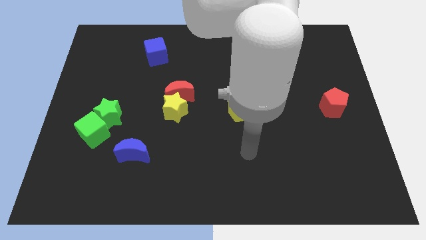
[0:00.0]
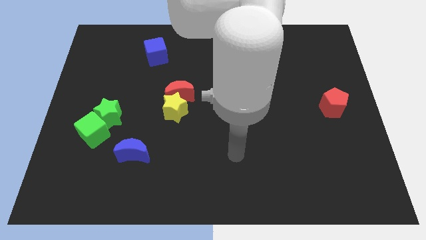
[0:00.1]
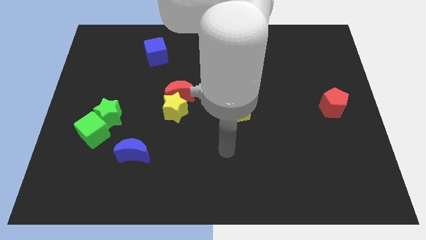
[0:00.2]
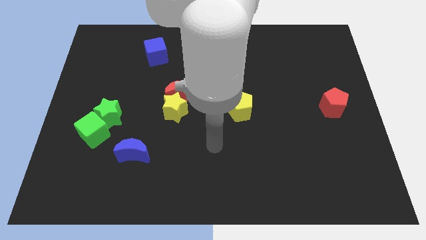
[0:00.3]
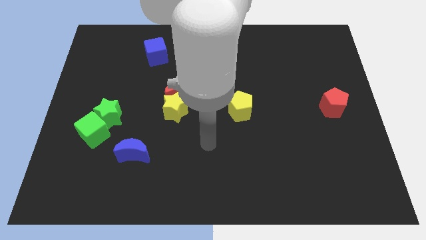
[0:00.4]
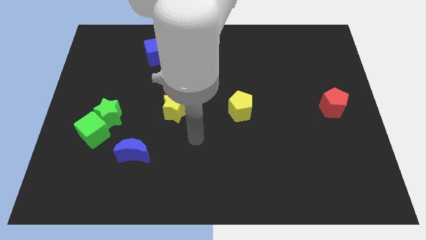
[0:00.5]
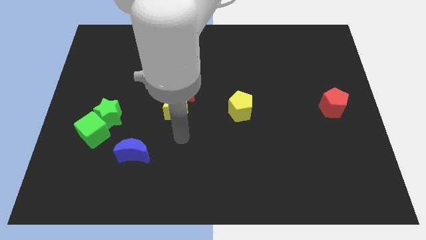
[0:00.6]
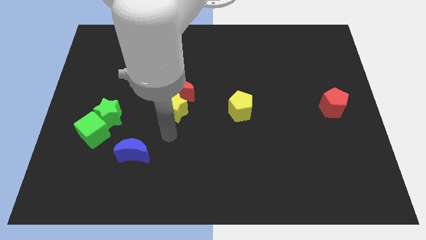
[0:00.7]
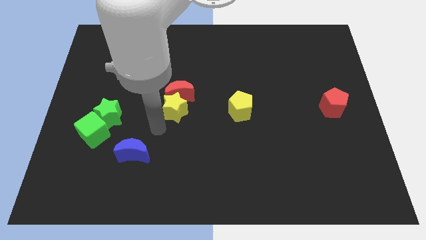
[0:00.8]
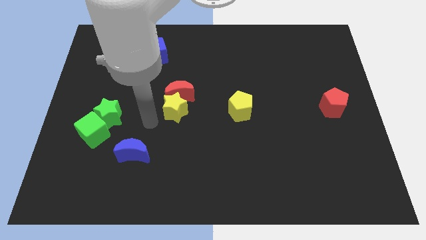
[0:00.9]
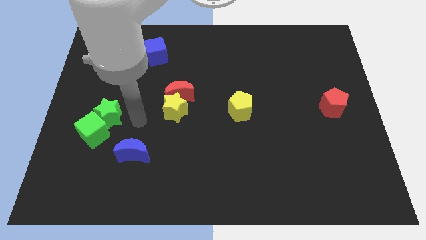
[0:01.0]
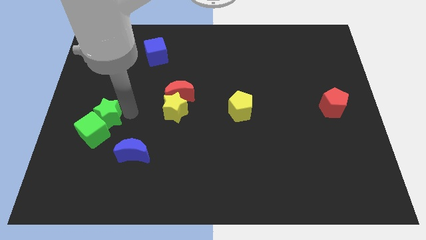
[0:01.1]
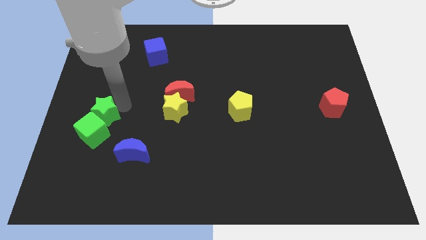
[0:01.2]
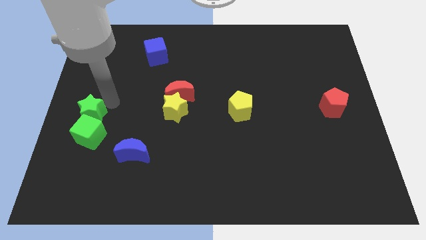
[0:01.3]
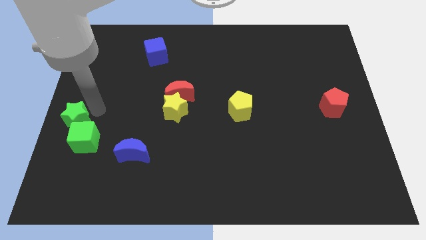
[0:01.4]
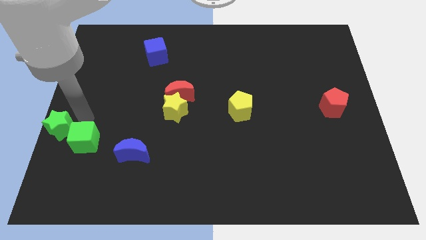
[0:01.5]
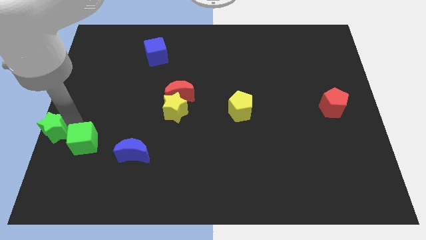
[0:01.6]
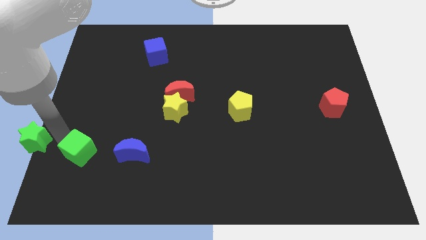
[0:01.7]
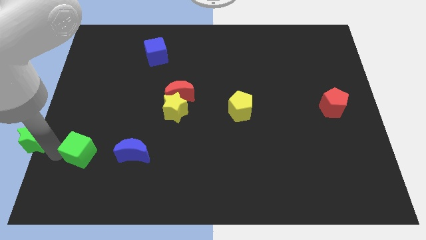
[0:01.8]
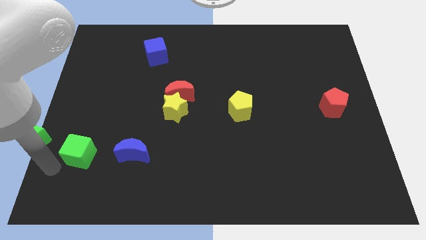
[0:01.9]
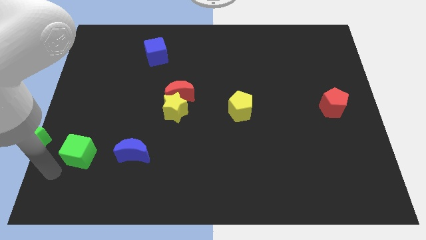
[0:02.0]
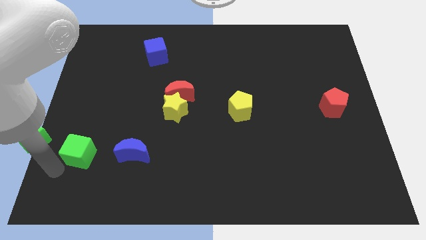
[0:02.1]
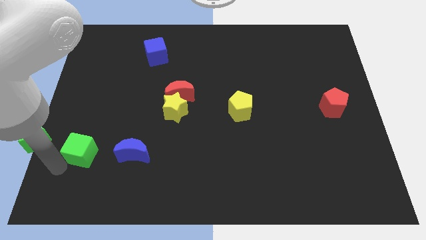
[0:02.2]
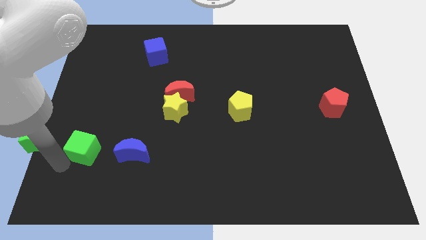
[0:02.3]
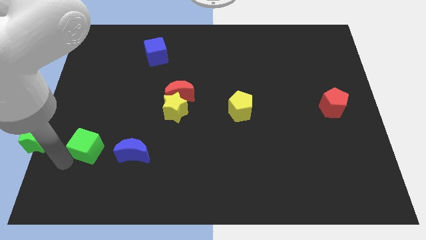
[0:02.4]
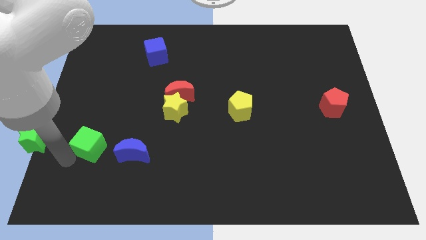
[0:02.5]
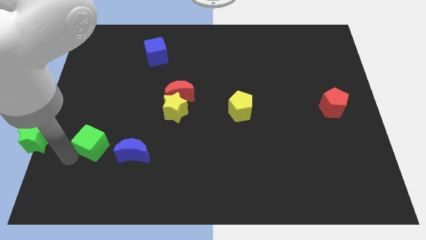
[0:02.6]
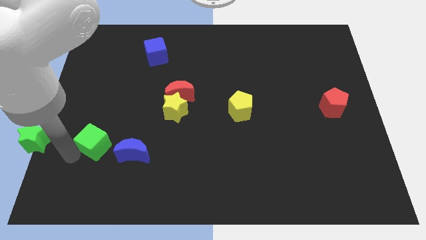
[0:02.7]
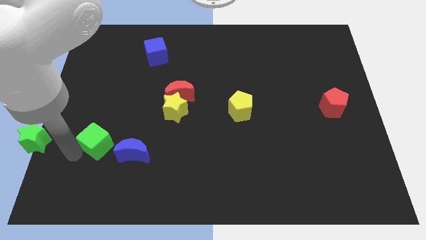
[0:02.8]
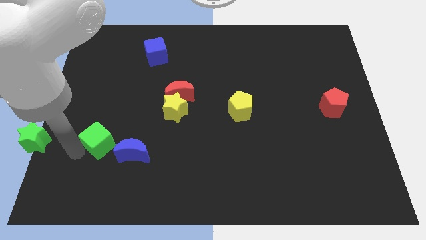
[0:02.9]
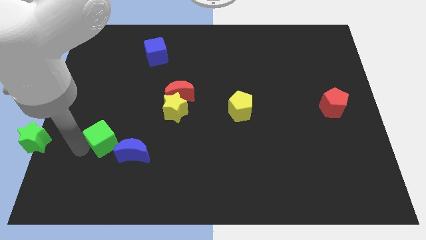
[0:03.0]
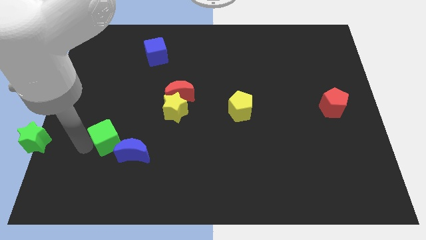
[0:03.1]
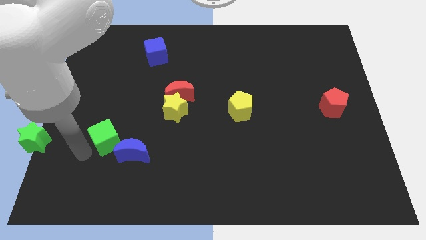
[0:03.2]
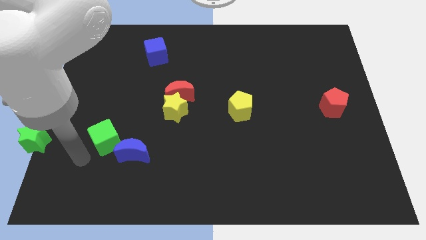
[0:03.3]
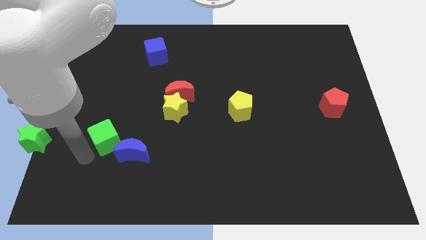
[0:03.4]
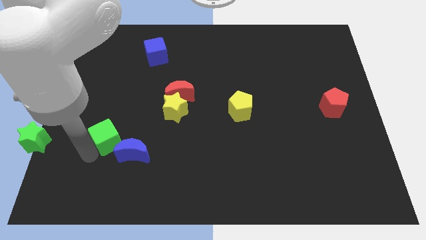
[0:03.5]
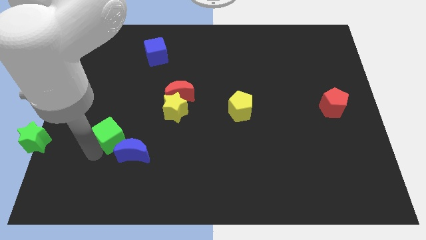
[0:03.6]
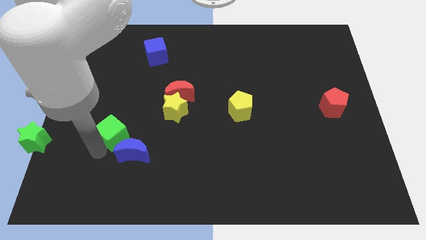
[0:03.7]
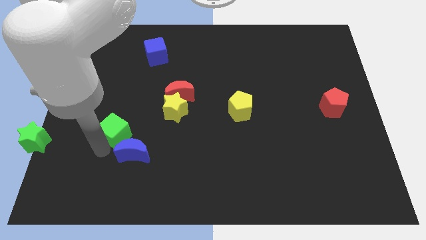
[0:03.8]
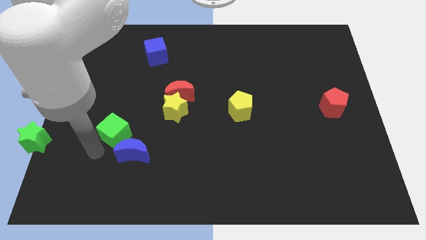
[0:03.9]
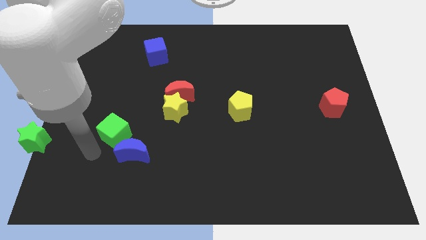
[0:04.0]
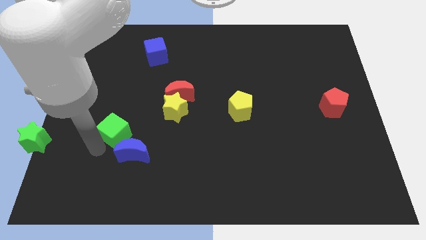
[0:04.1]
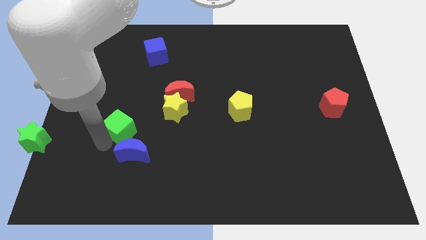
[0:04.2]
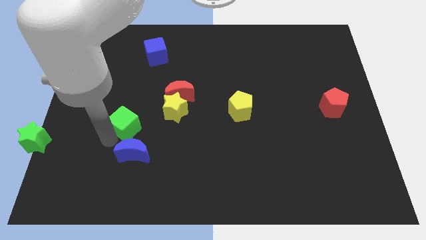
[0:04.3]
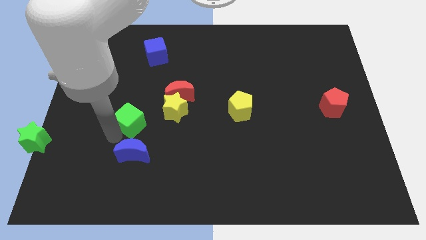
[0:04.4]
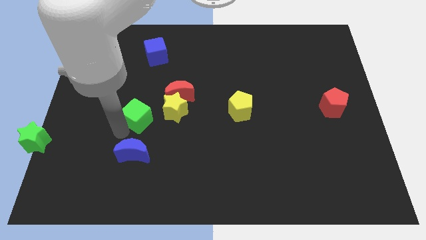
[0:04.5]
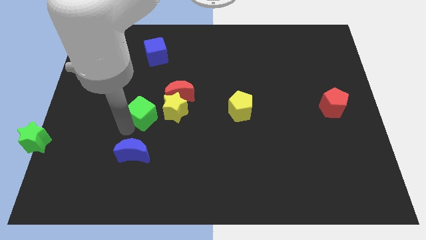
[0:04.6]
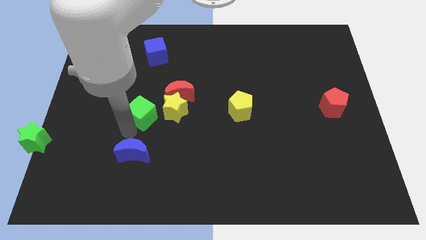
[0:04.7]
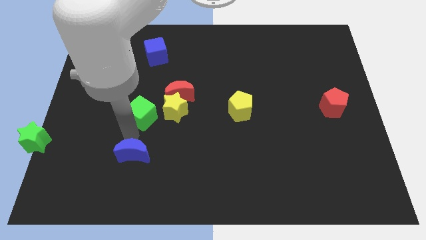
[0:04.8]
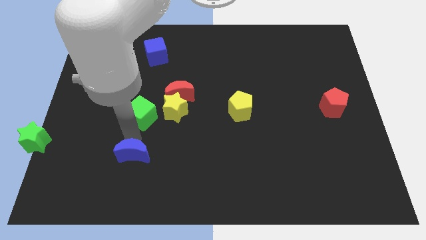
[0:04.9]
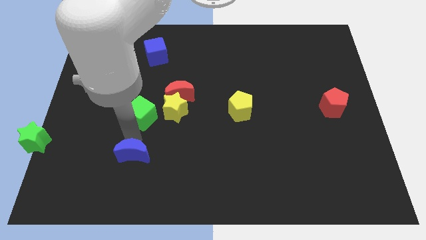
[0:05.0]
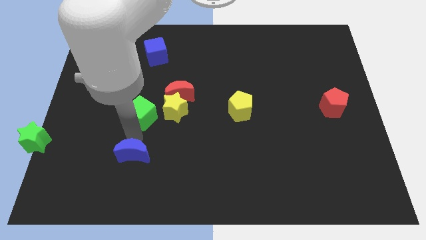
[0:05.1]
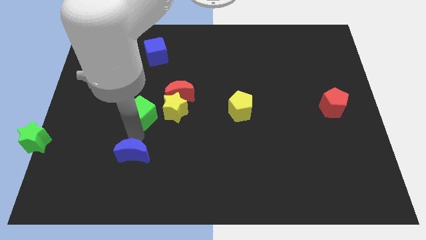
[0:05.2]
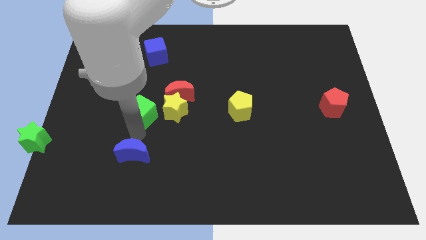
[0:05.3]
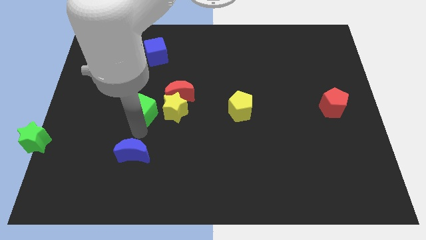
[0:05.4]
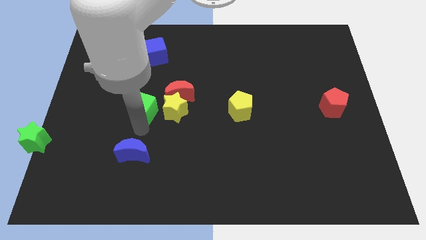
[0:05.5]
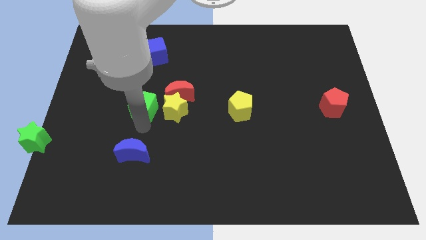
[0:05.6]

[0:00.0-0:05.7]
move the green cube to the top left side of the yellow star
